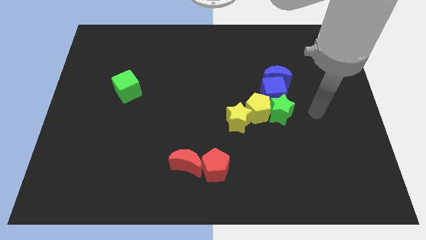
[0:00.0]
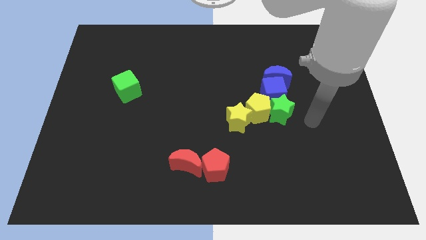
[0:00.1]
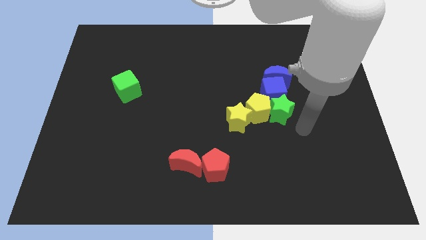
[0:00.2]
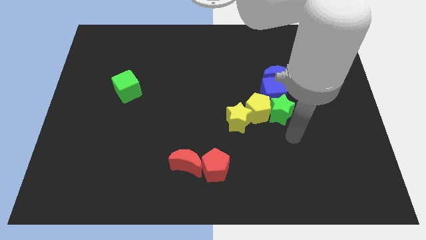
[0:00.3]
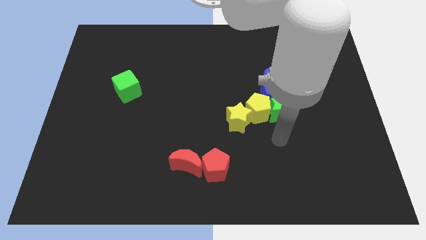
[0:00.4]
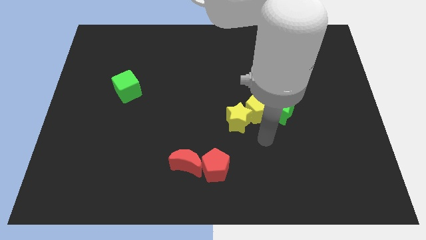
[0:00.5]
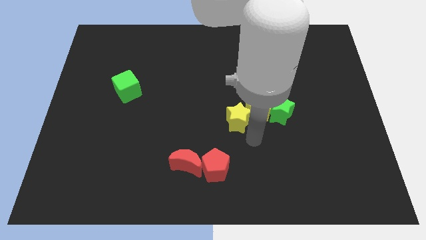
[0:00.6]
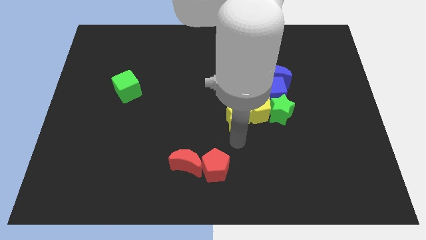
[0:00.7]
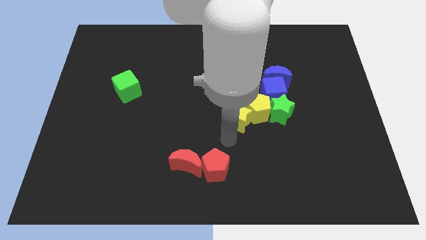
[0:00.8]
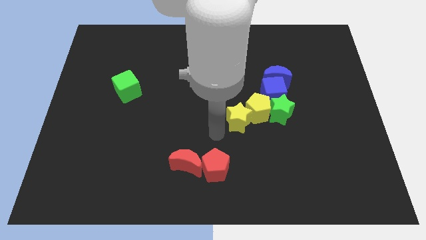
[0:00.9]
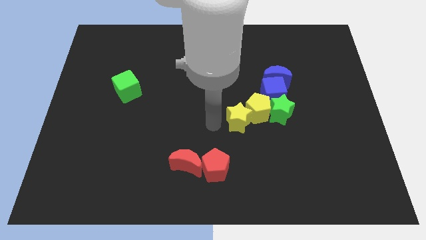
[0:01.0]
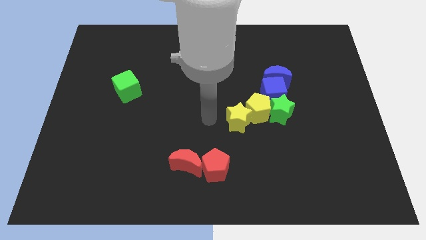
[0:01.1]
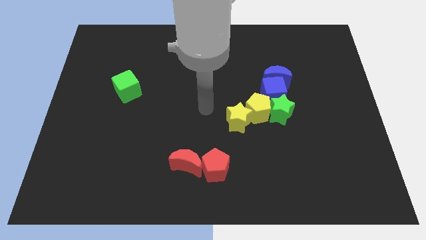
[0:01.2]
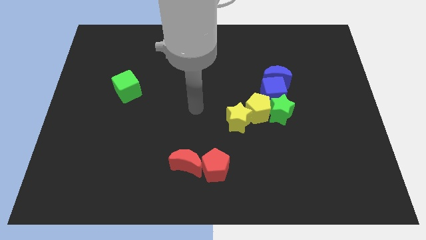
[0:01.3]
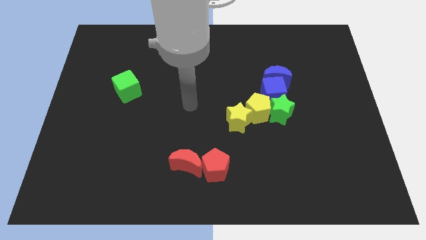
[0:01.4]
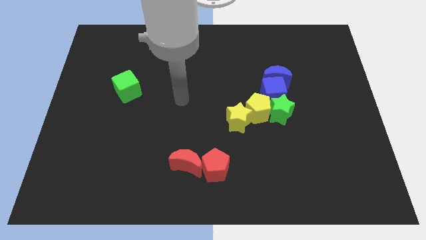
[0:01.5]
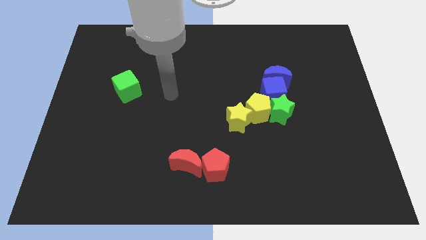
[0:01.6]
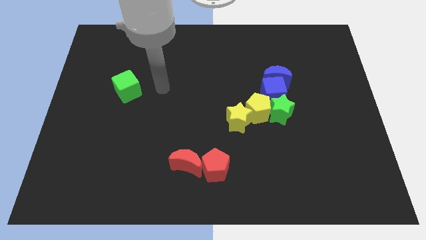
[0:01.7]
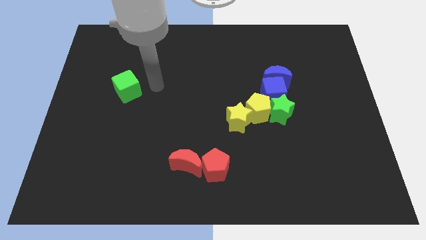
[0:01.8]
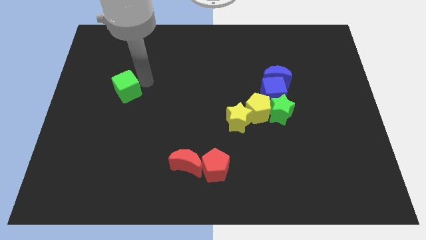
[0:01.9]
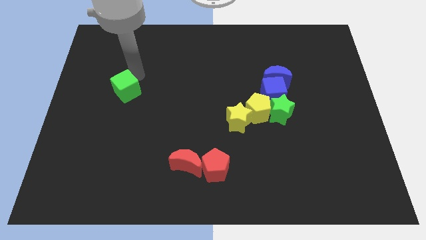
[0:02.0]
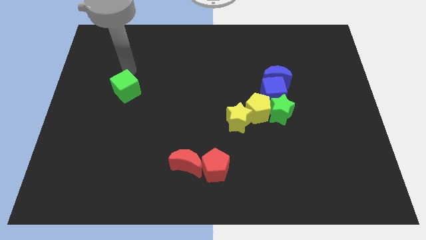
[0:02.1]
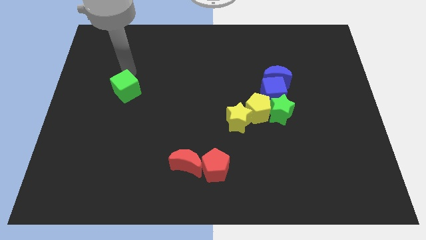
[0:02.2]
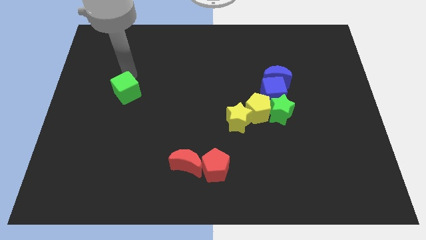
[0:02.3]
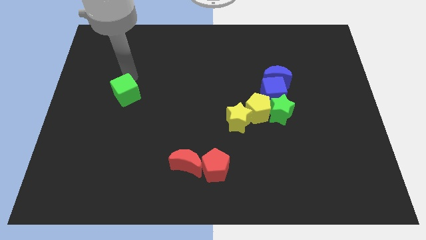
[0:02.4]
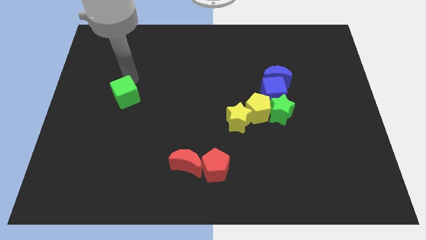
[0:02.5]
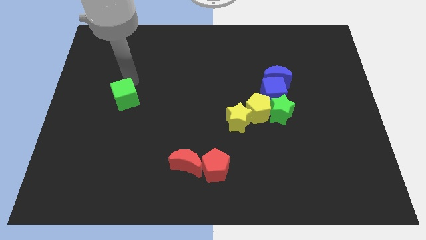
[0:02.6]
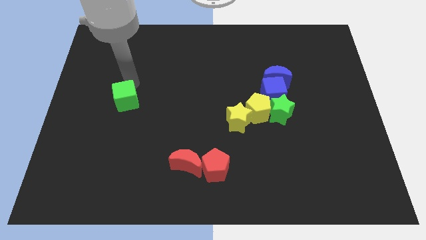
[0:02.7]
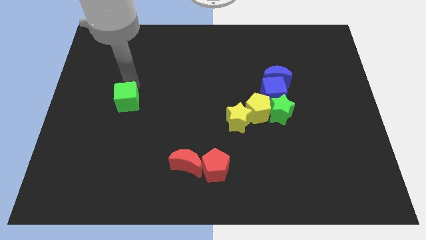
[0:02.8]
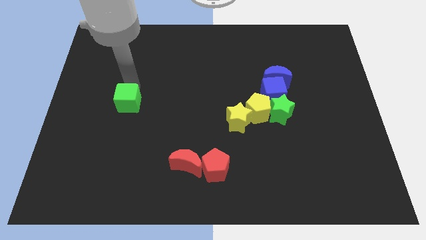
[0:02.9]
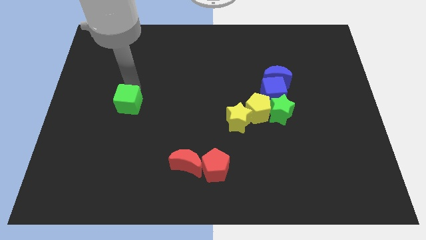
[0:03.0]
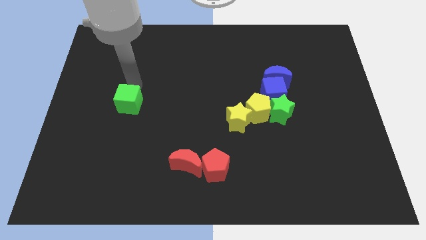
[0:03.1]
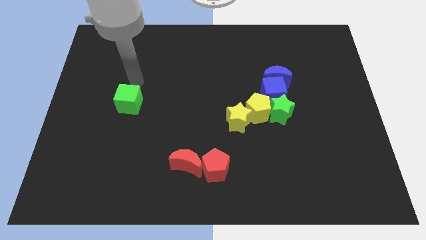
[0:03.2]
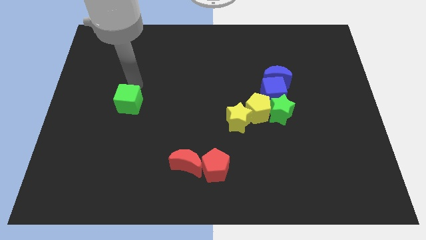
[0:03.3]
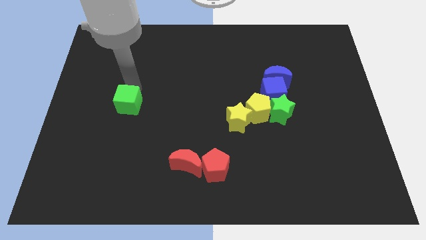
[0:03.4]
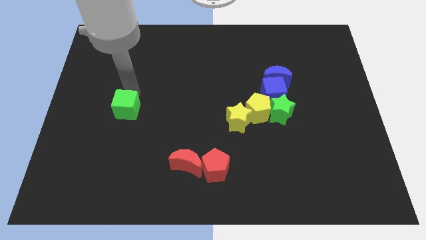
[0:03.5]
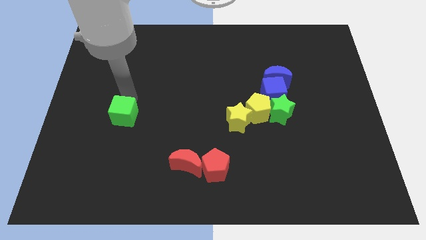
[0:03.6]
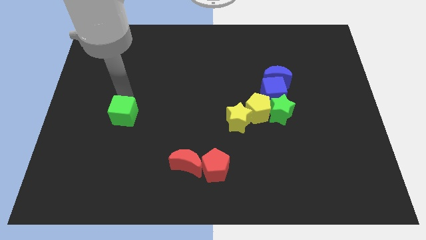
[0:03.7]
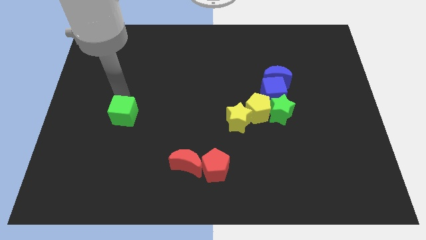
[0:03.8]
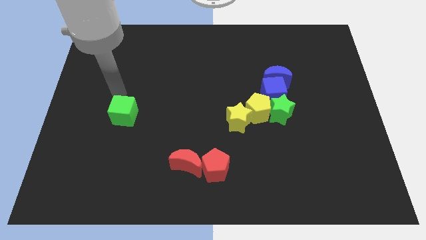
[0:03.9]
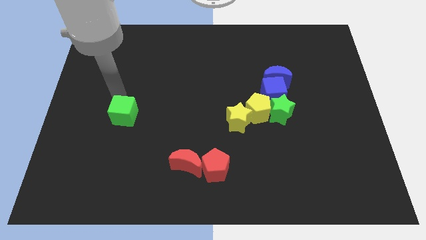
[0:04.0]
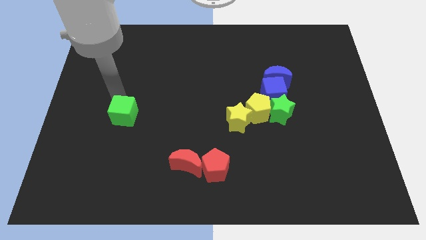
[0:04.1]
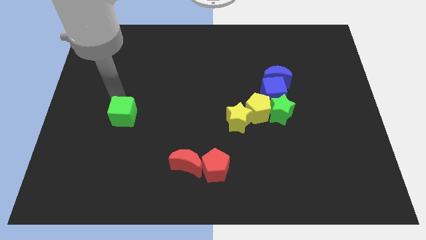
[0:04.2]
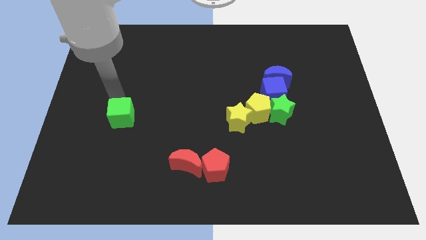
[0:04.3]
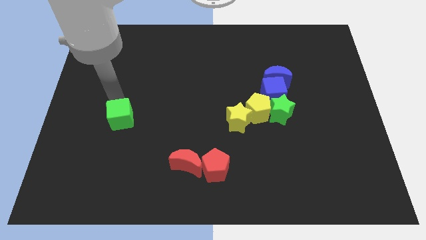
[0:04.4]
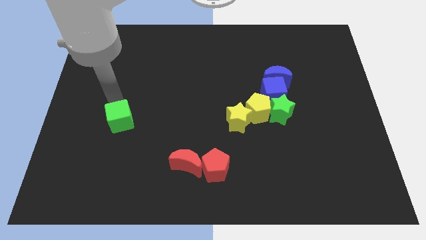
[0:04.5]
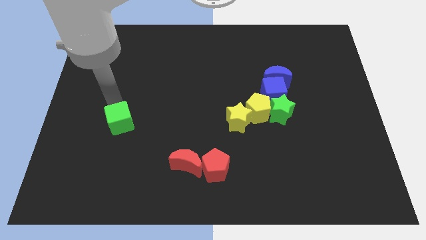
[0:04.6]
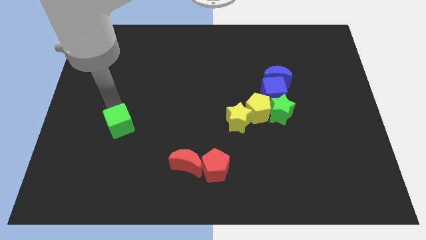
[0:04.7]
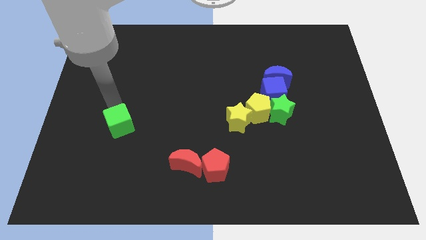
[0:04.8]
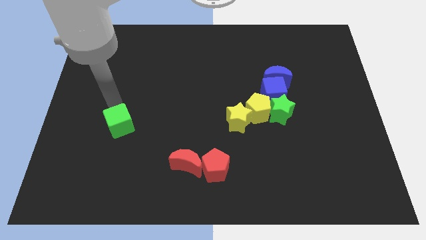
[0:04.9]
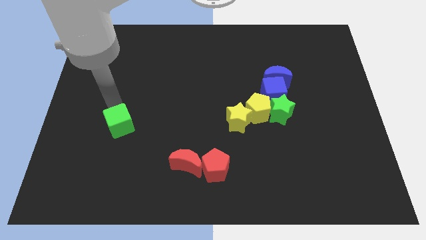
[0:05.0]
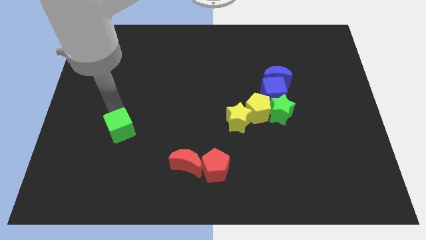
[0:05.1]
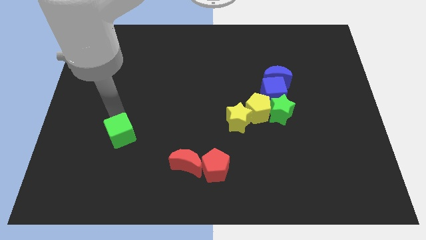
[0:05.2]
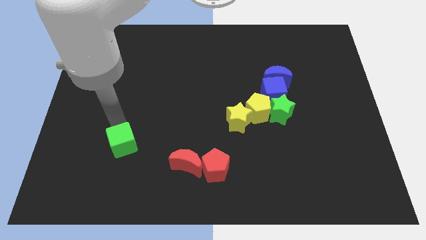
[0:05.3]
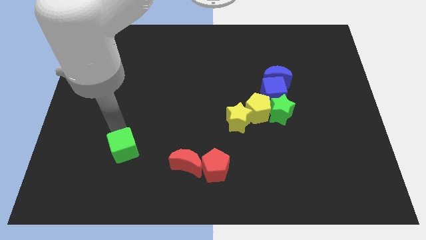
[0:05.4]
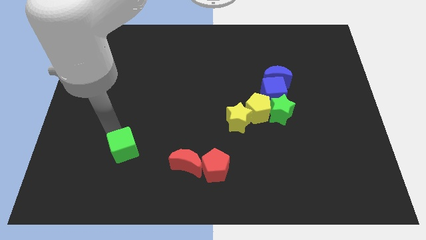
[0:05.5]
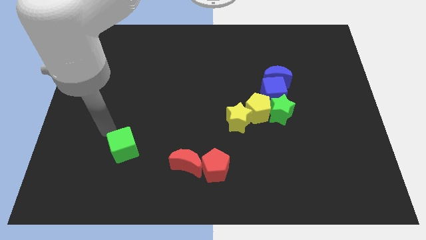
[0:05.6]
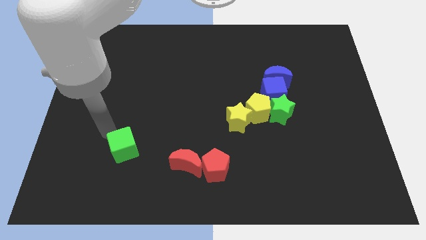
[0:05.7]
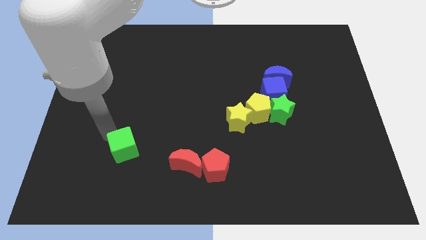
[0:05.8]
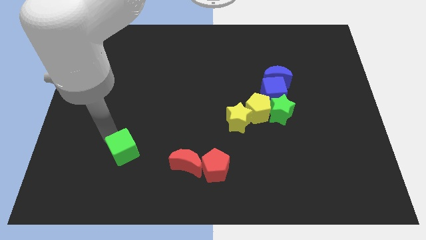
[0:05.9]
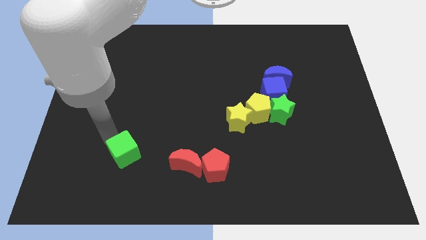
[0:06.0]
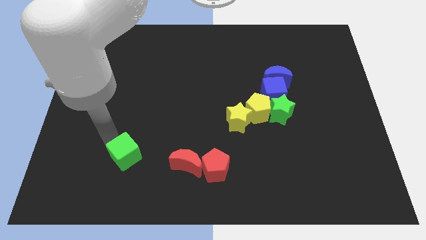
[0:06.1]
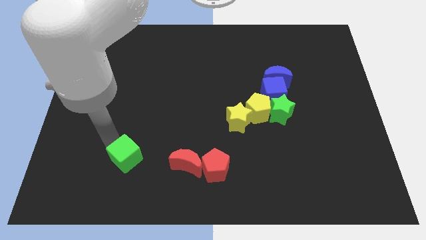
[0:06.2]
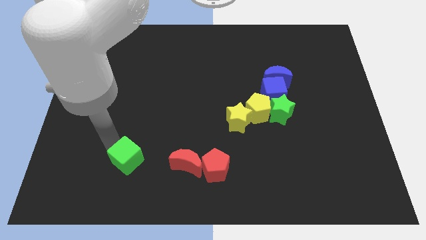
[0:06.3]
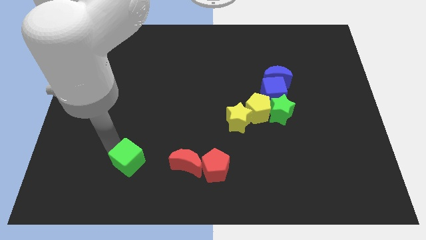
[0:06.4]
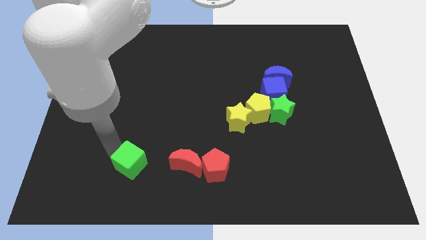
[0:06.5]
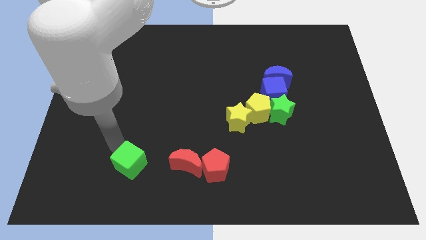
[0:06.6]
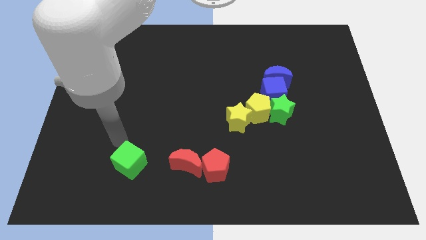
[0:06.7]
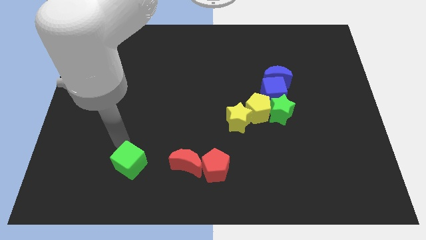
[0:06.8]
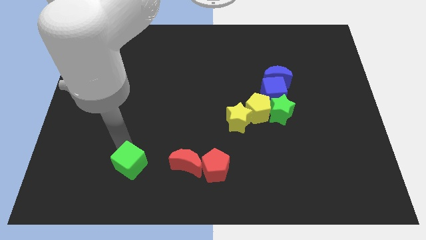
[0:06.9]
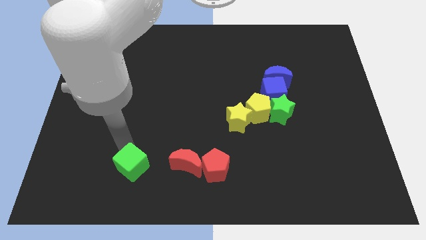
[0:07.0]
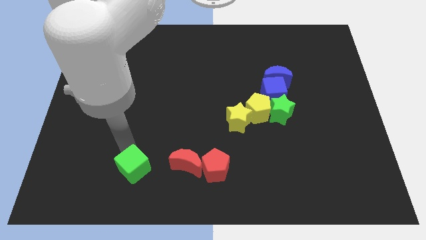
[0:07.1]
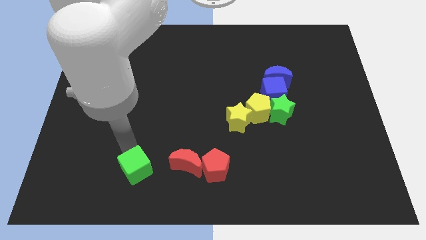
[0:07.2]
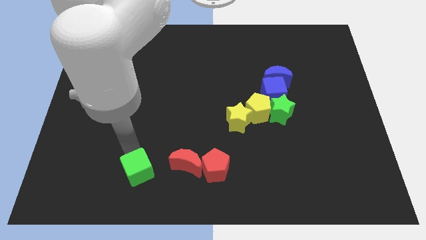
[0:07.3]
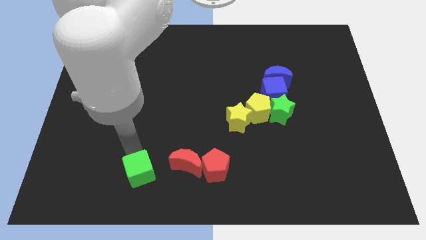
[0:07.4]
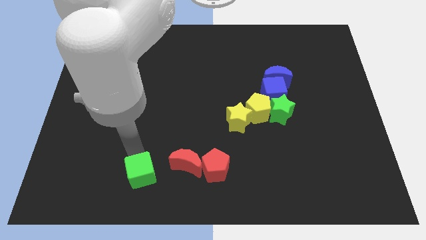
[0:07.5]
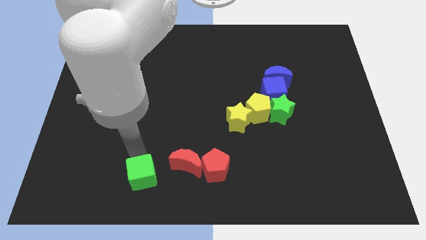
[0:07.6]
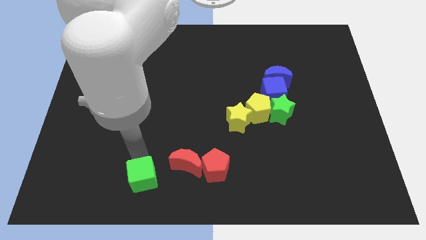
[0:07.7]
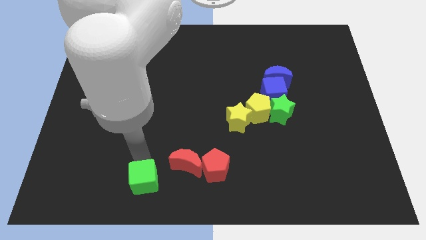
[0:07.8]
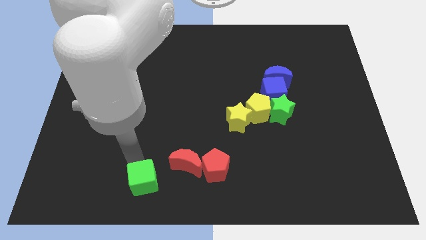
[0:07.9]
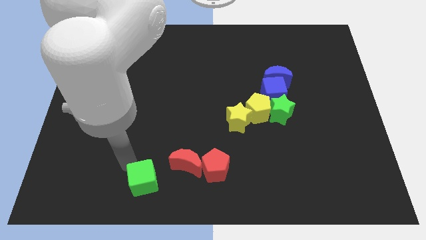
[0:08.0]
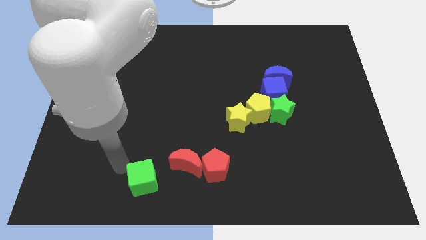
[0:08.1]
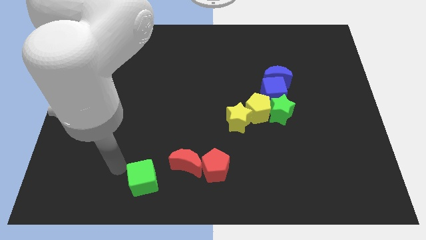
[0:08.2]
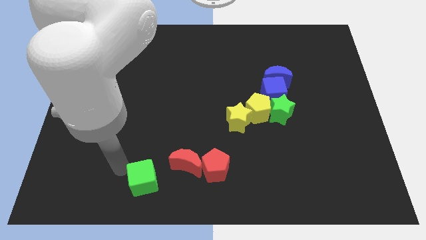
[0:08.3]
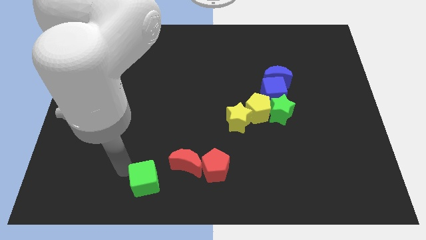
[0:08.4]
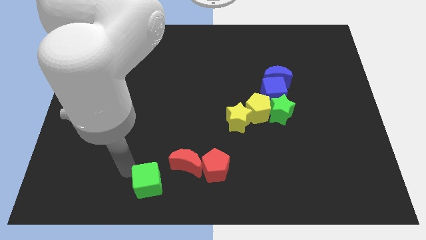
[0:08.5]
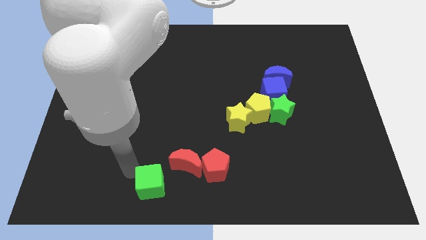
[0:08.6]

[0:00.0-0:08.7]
push the green cube to the bottom
